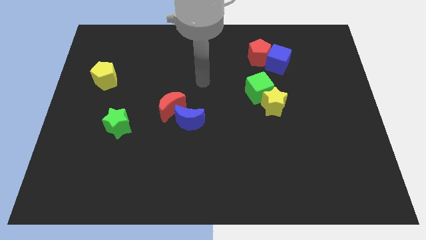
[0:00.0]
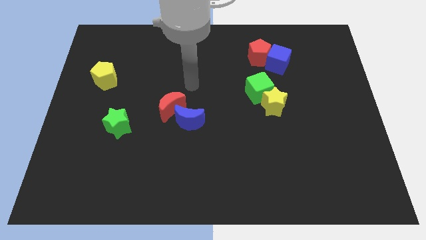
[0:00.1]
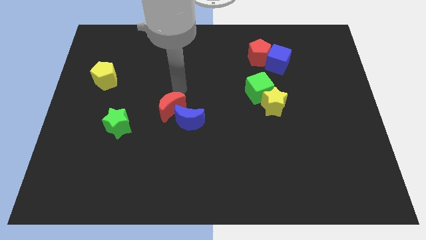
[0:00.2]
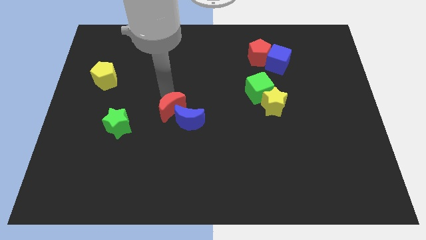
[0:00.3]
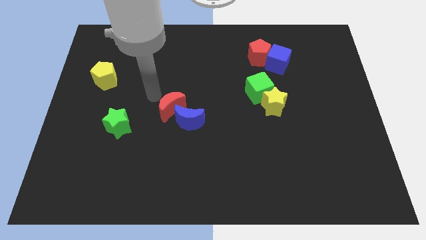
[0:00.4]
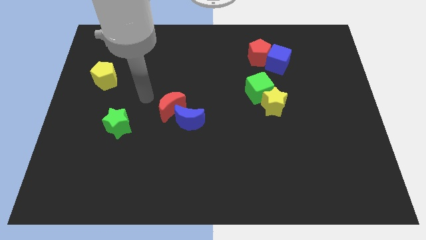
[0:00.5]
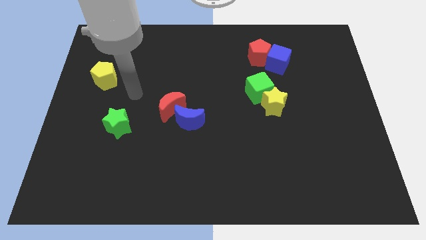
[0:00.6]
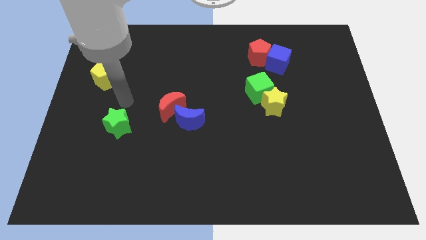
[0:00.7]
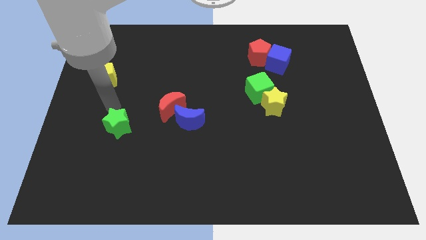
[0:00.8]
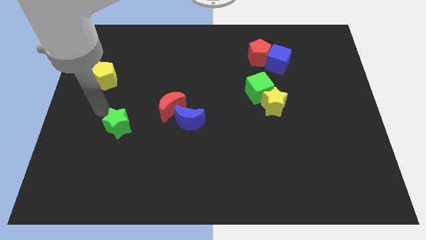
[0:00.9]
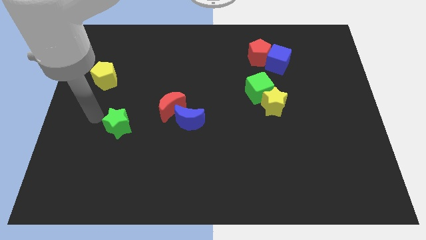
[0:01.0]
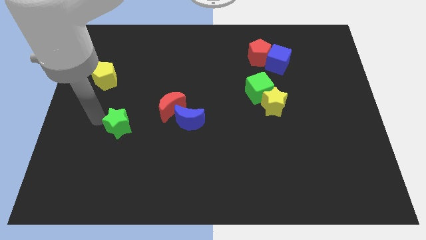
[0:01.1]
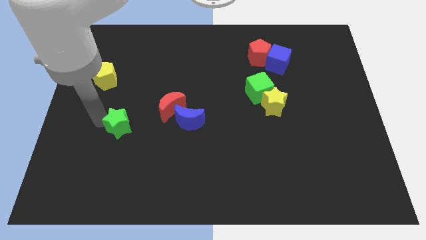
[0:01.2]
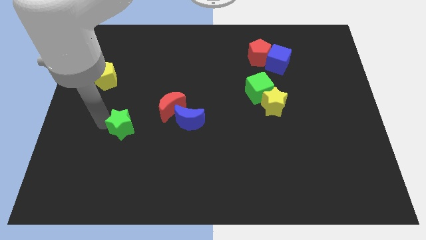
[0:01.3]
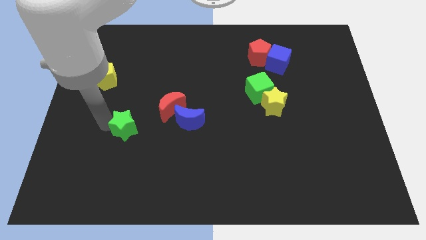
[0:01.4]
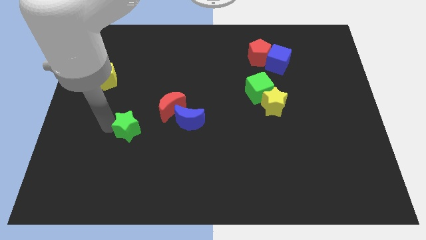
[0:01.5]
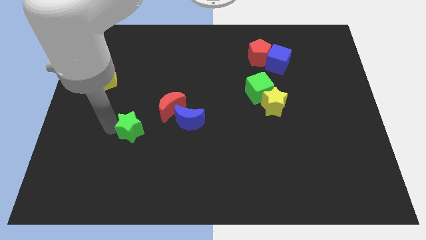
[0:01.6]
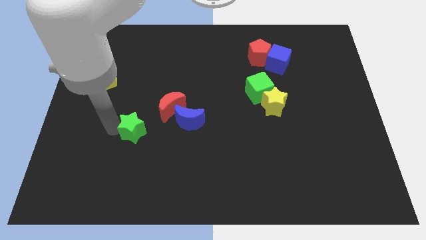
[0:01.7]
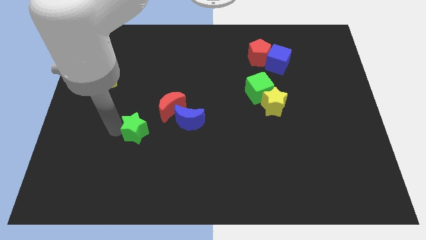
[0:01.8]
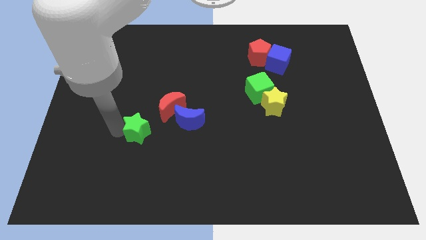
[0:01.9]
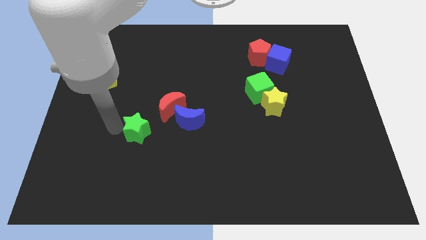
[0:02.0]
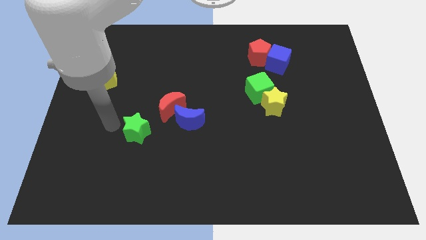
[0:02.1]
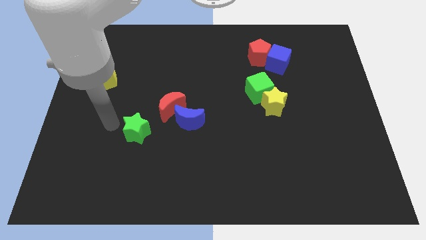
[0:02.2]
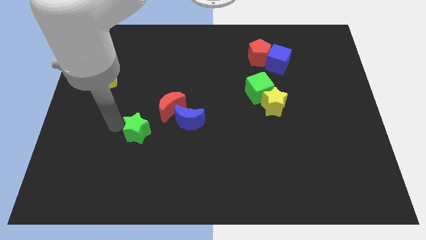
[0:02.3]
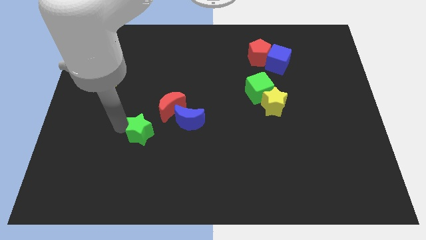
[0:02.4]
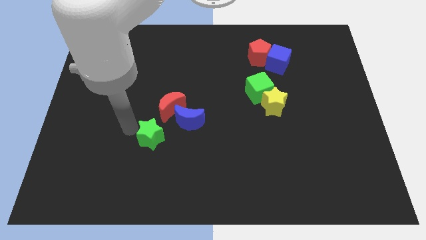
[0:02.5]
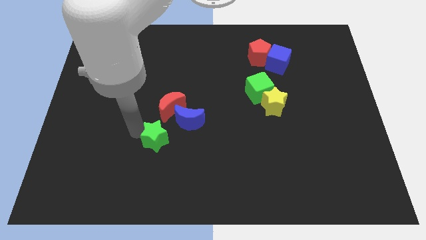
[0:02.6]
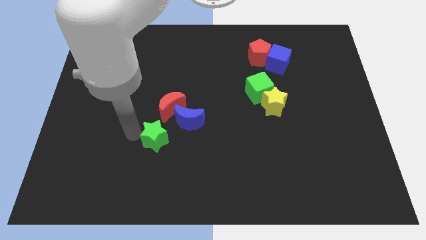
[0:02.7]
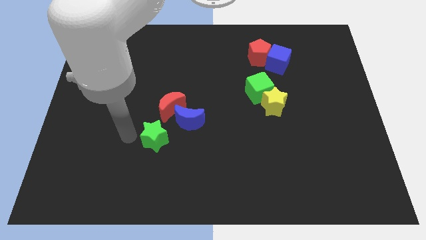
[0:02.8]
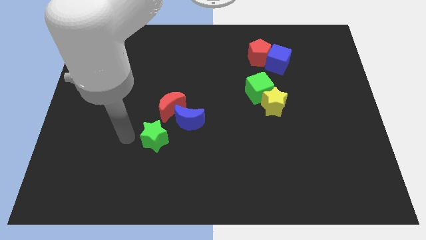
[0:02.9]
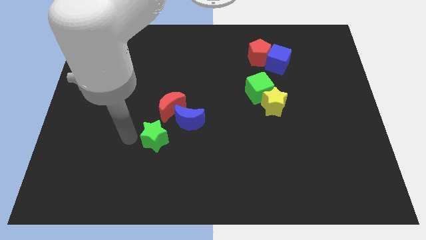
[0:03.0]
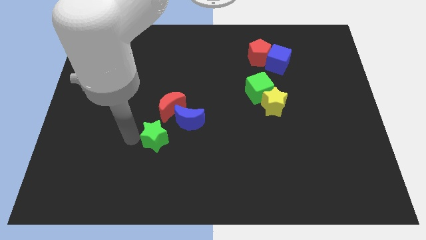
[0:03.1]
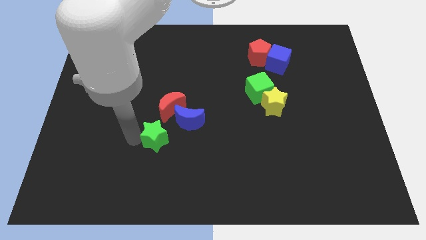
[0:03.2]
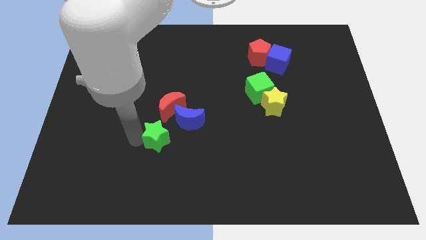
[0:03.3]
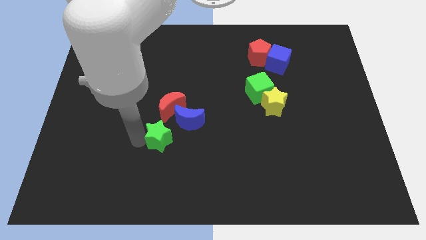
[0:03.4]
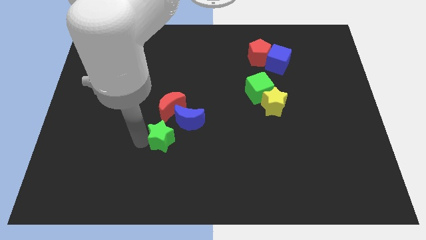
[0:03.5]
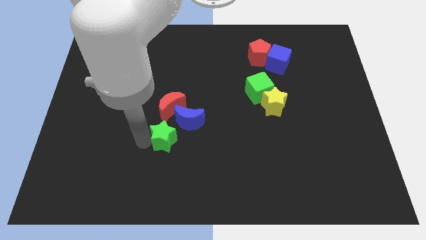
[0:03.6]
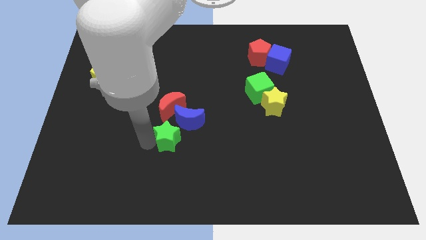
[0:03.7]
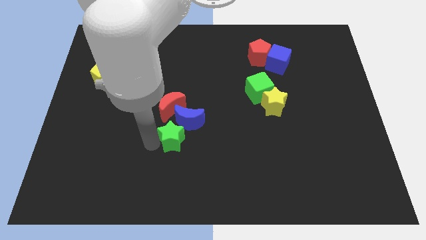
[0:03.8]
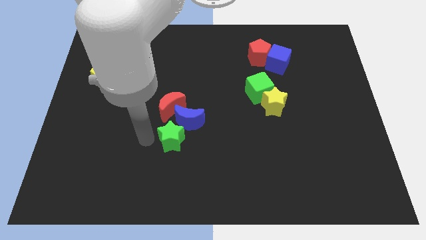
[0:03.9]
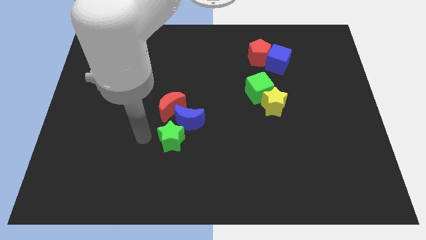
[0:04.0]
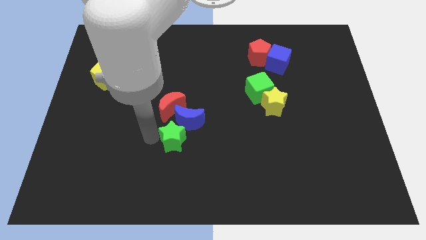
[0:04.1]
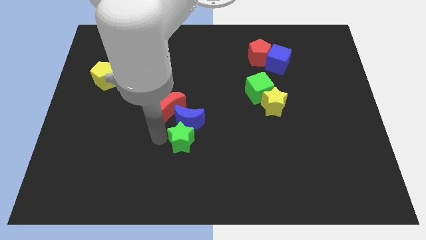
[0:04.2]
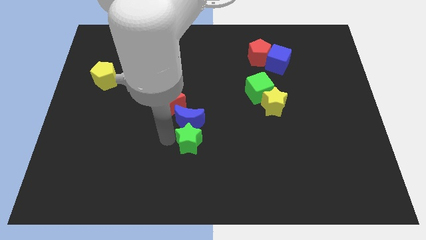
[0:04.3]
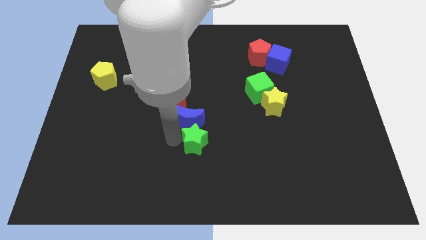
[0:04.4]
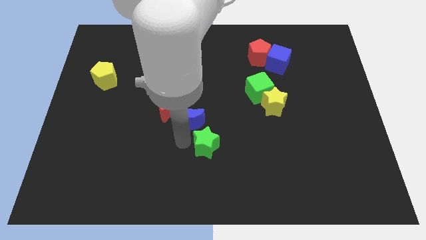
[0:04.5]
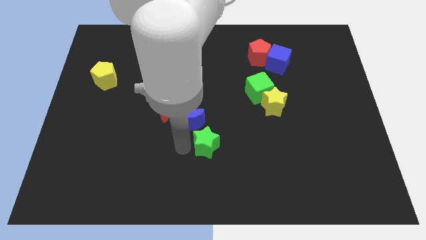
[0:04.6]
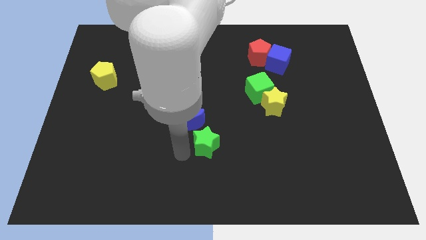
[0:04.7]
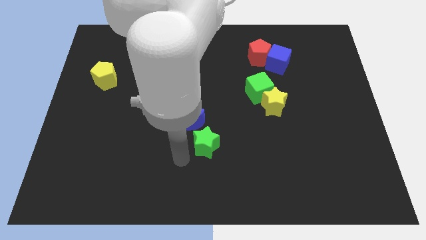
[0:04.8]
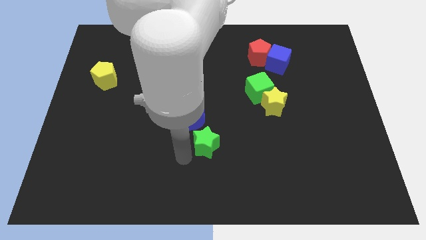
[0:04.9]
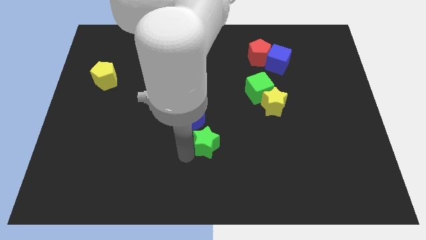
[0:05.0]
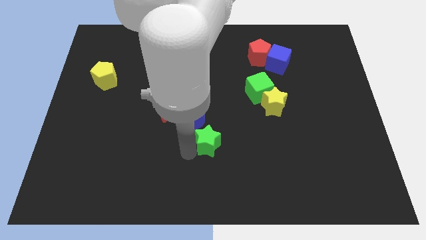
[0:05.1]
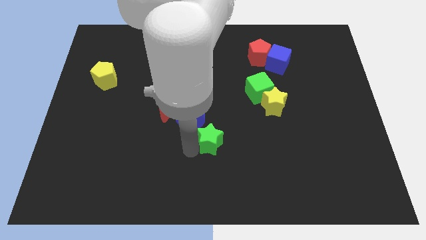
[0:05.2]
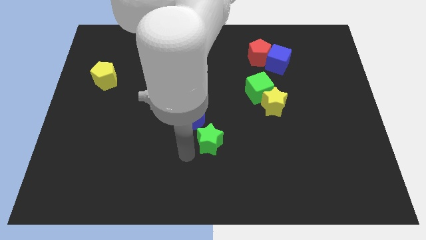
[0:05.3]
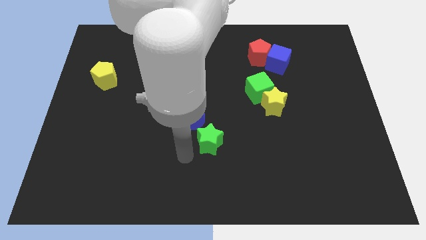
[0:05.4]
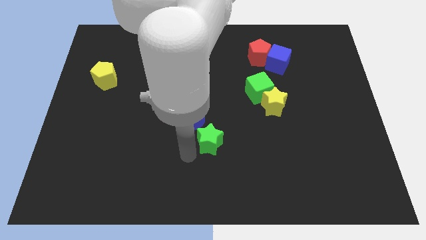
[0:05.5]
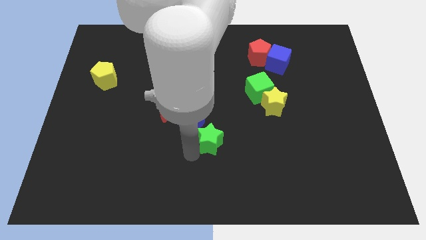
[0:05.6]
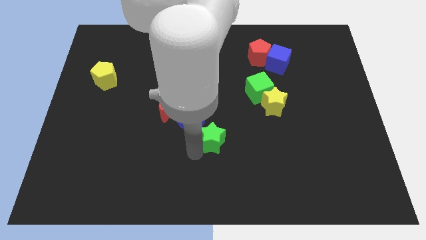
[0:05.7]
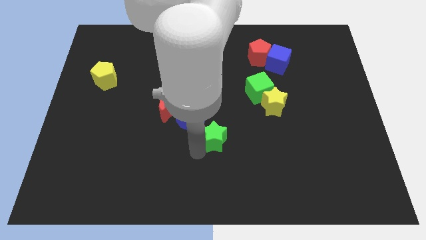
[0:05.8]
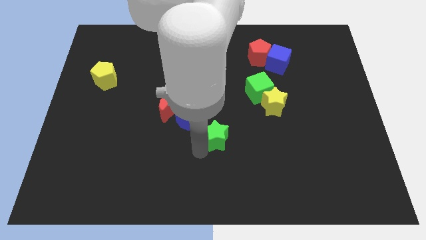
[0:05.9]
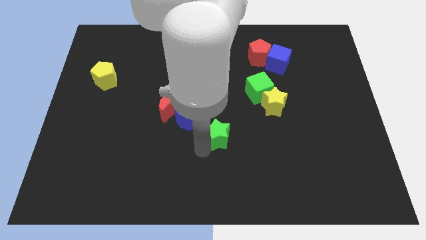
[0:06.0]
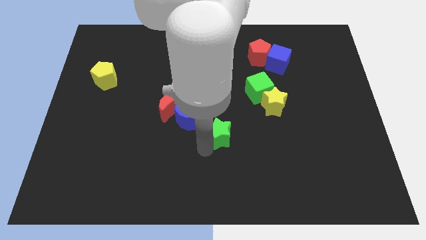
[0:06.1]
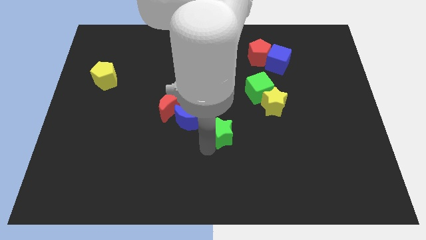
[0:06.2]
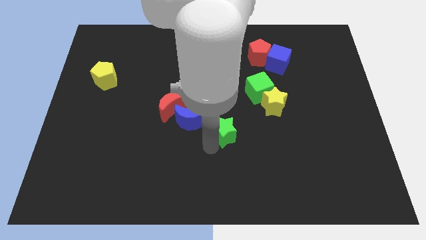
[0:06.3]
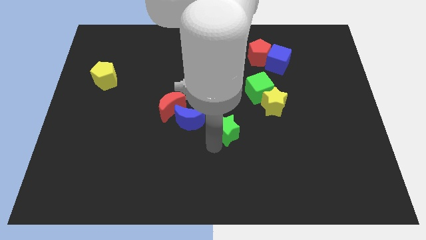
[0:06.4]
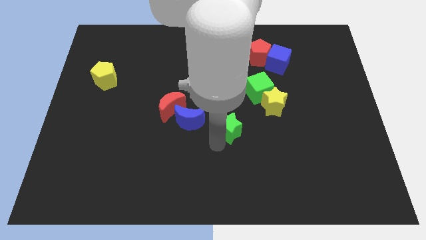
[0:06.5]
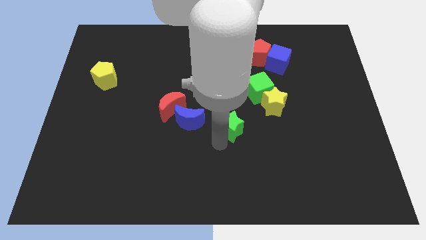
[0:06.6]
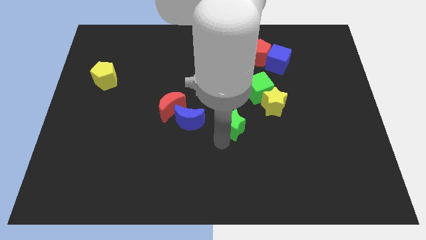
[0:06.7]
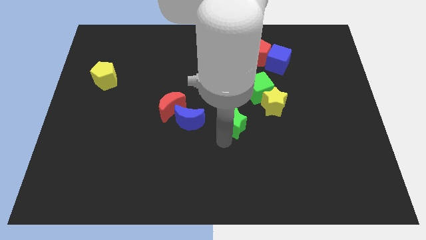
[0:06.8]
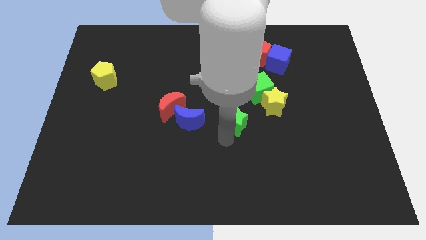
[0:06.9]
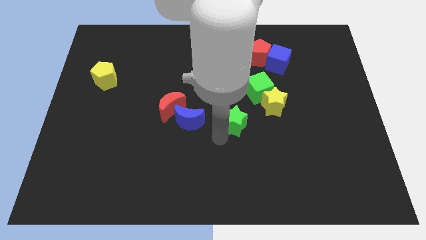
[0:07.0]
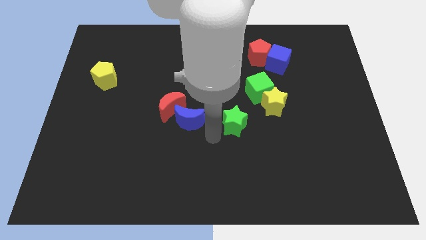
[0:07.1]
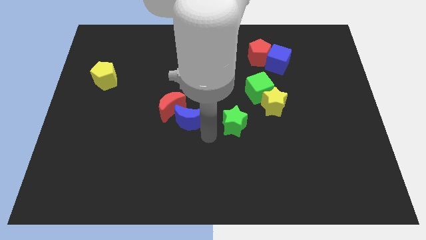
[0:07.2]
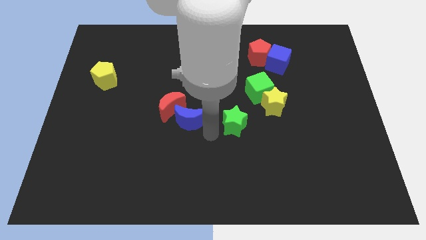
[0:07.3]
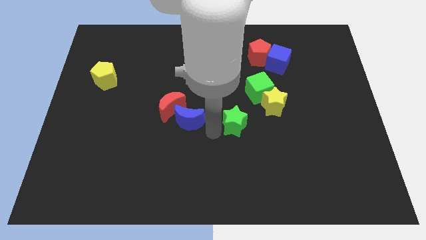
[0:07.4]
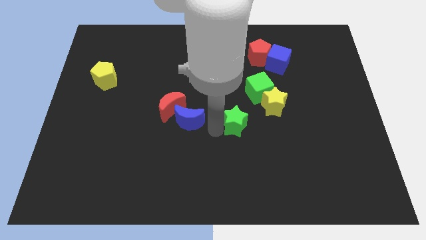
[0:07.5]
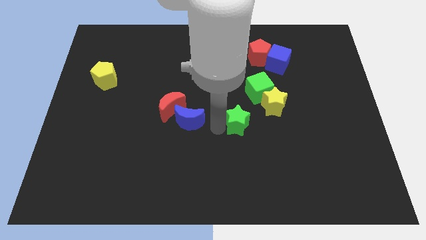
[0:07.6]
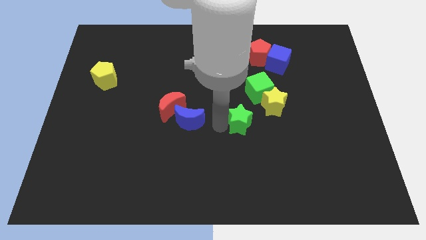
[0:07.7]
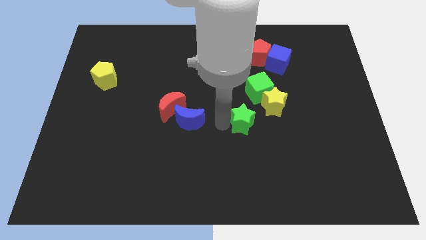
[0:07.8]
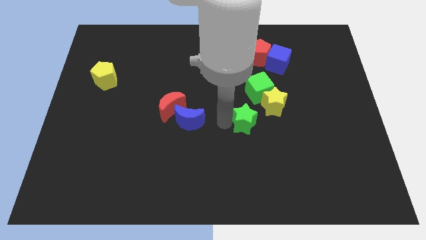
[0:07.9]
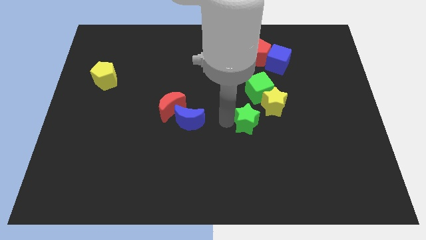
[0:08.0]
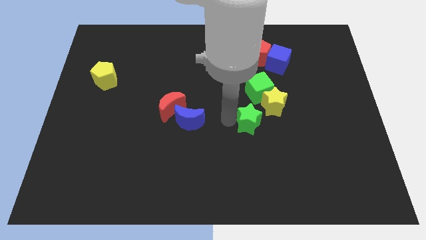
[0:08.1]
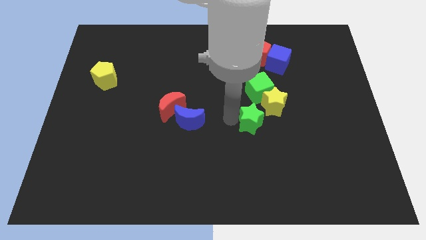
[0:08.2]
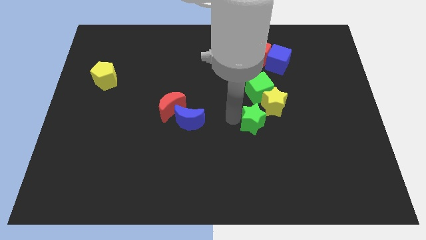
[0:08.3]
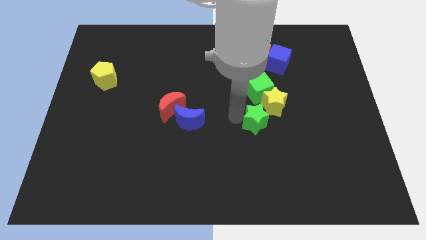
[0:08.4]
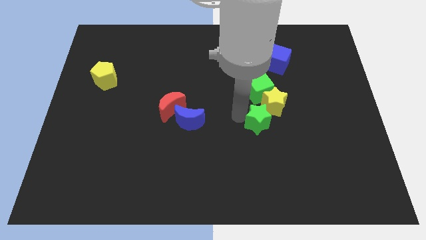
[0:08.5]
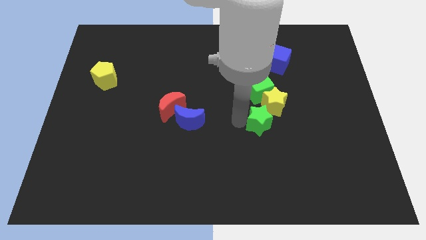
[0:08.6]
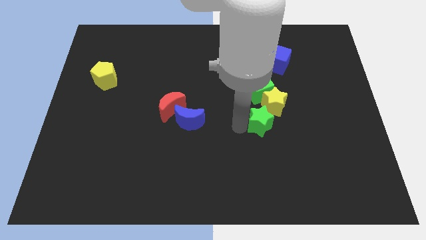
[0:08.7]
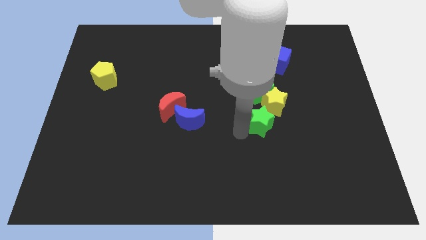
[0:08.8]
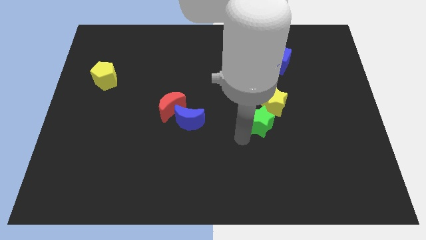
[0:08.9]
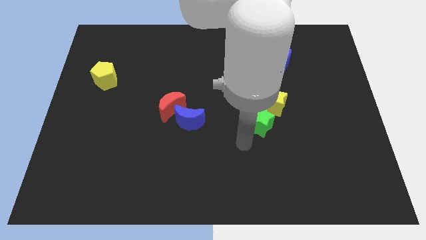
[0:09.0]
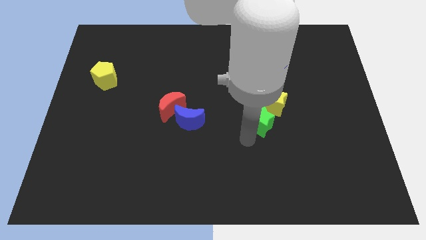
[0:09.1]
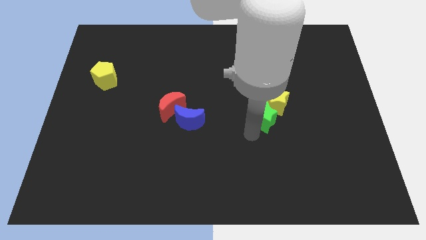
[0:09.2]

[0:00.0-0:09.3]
move the green star next to the yellow star
